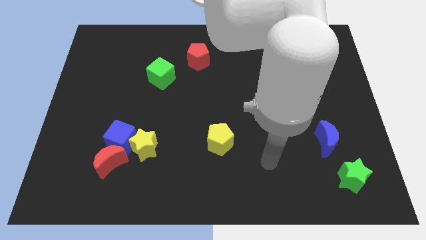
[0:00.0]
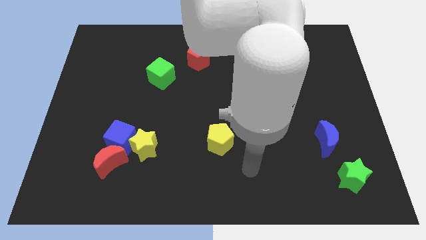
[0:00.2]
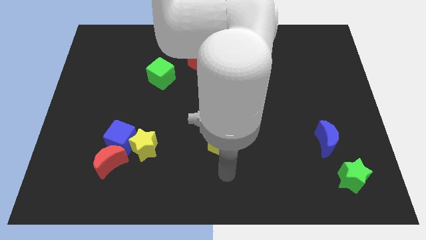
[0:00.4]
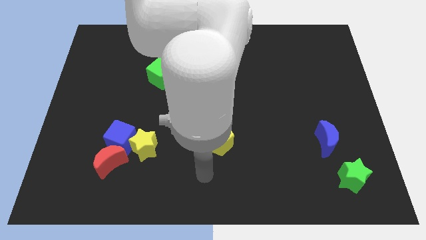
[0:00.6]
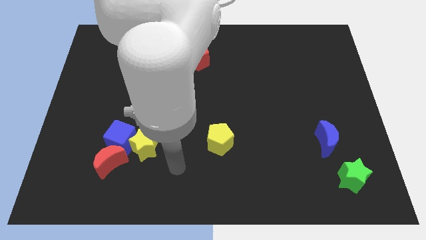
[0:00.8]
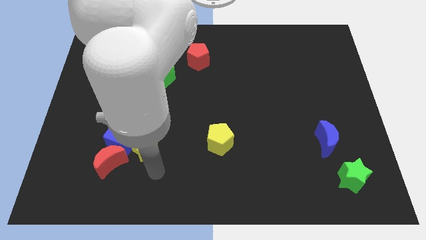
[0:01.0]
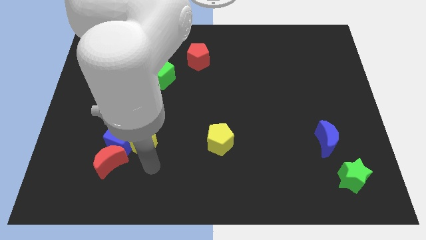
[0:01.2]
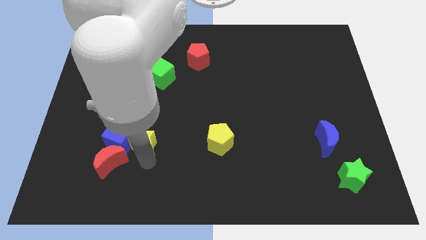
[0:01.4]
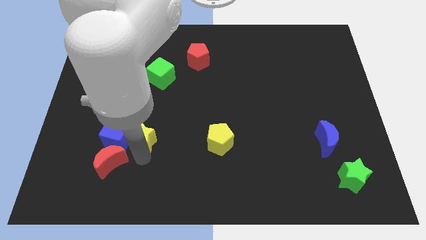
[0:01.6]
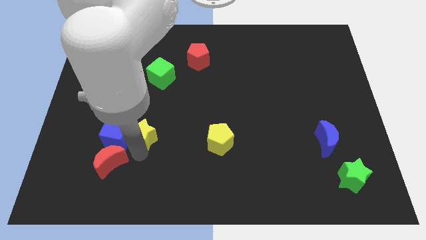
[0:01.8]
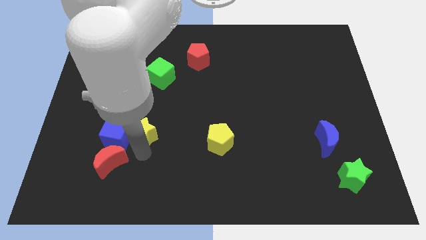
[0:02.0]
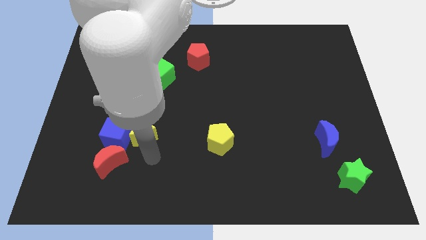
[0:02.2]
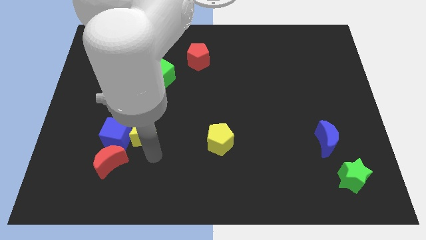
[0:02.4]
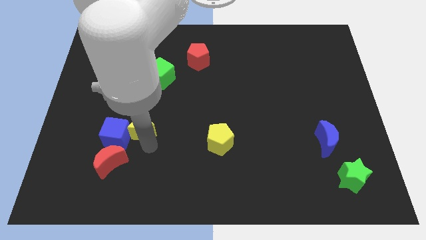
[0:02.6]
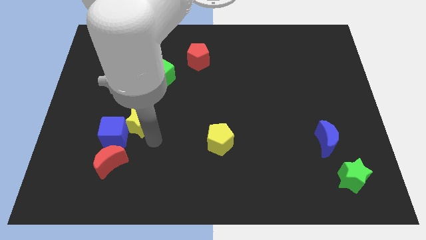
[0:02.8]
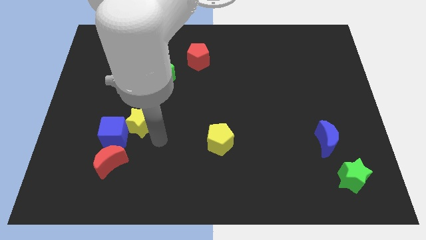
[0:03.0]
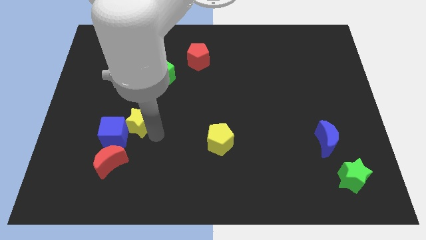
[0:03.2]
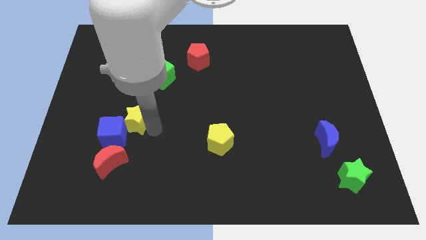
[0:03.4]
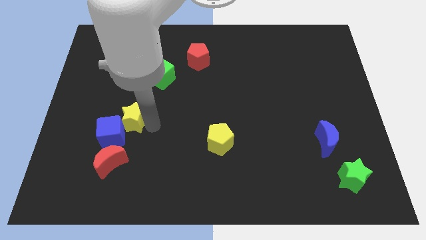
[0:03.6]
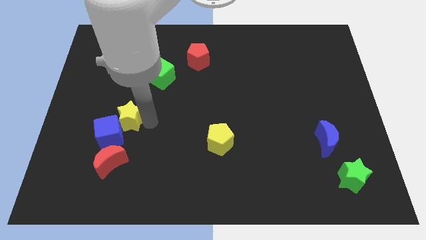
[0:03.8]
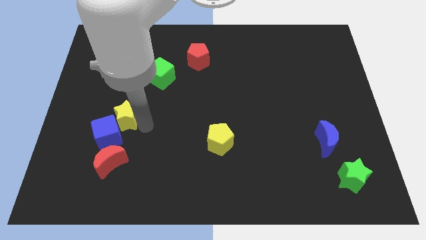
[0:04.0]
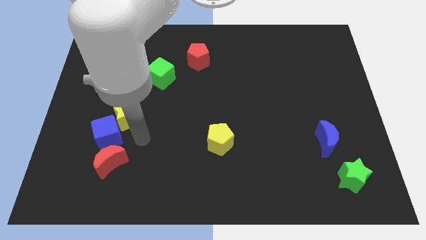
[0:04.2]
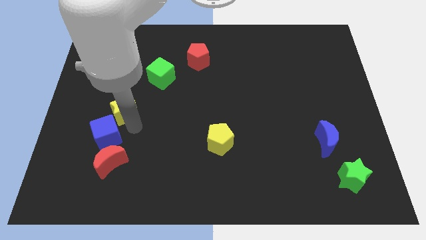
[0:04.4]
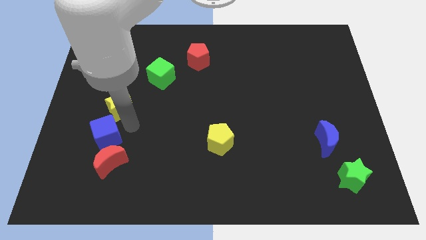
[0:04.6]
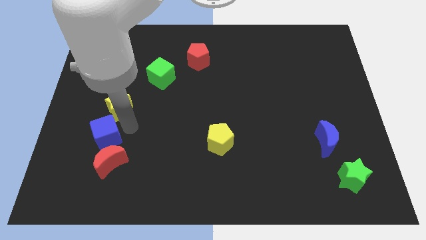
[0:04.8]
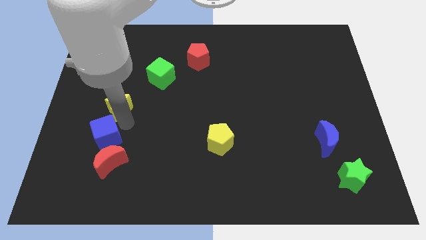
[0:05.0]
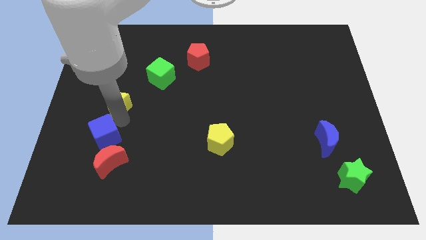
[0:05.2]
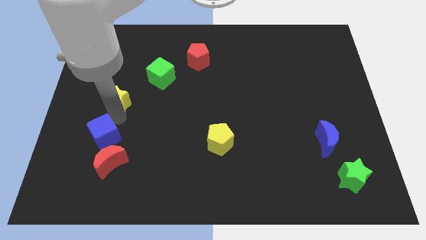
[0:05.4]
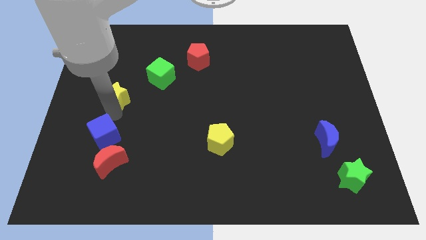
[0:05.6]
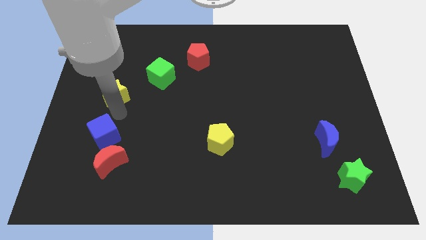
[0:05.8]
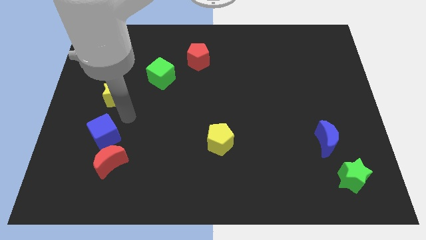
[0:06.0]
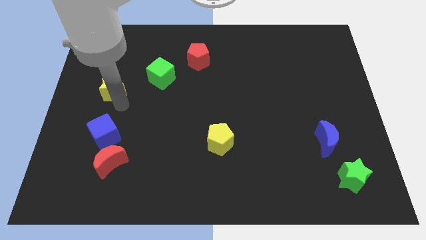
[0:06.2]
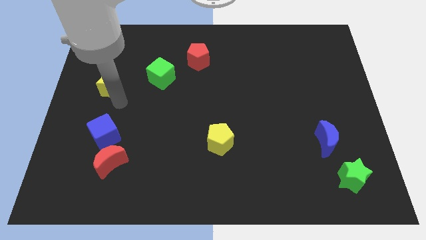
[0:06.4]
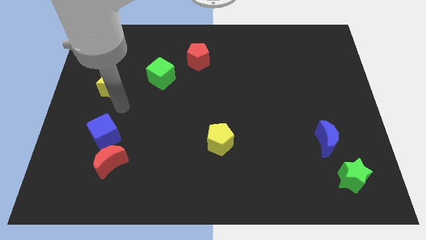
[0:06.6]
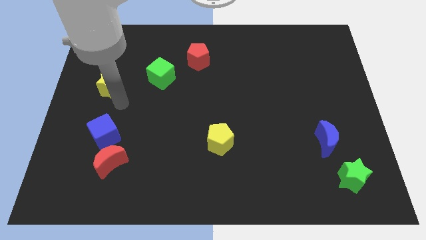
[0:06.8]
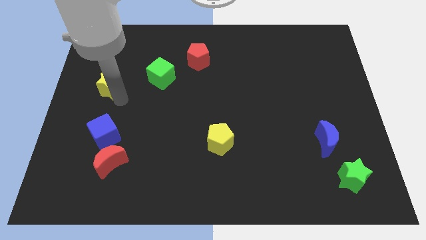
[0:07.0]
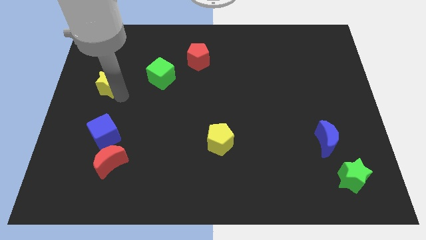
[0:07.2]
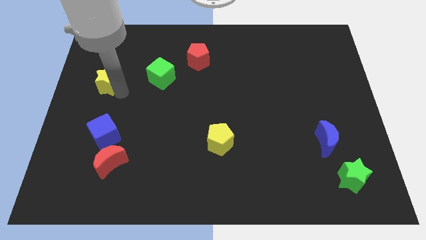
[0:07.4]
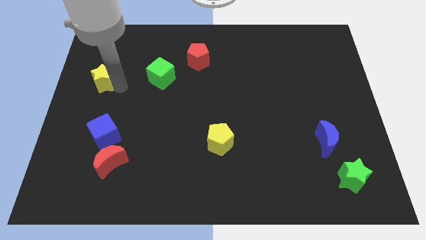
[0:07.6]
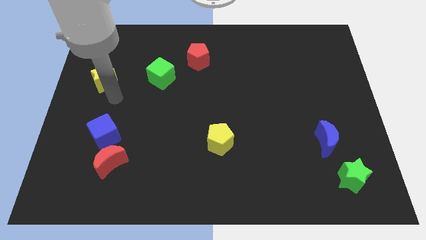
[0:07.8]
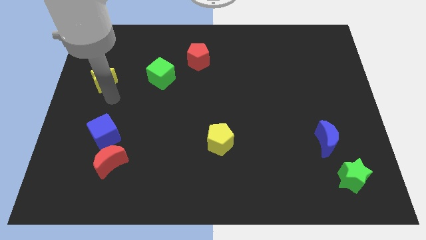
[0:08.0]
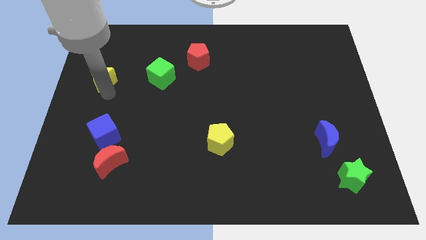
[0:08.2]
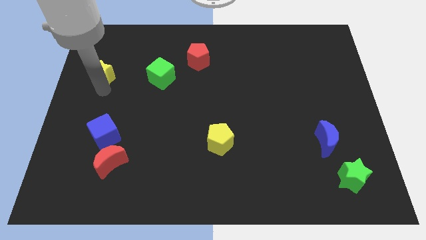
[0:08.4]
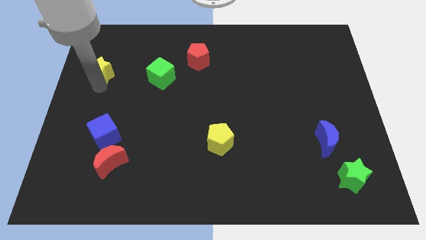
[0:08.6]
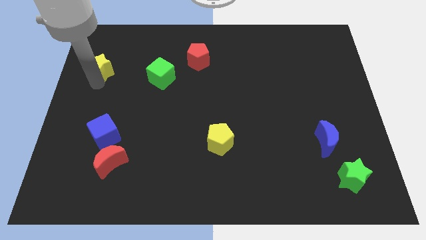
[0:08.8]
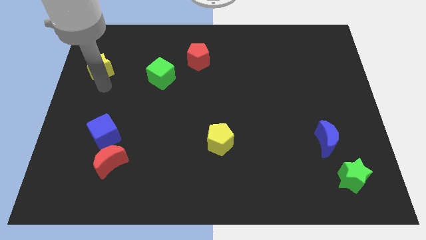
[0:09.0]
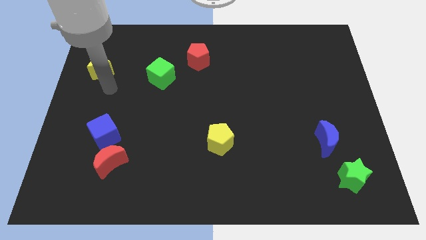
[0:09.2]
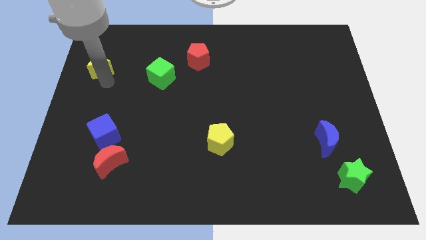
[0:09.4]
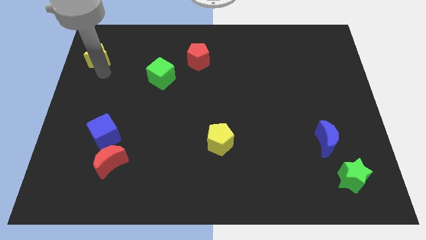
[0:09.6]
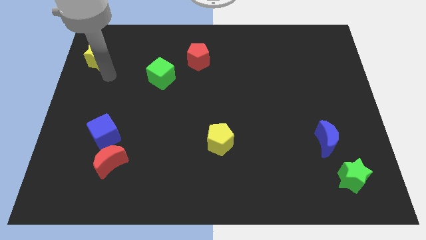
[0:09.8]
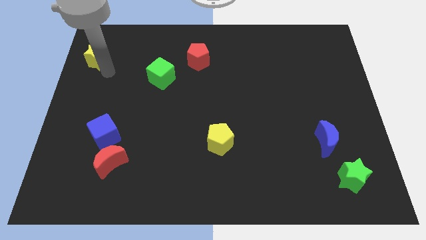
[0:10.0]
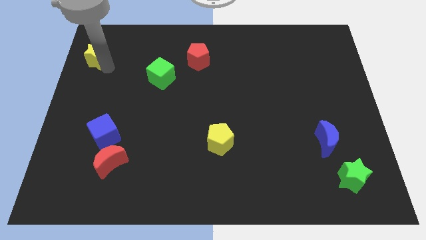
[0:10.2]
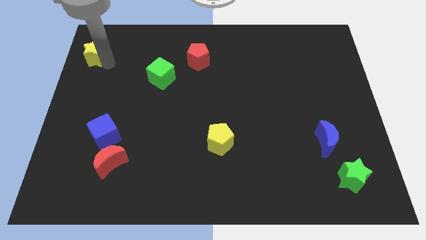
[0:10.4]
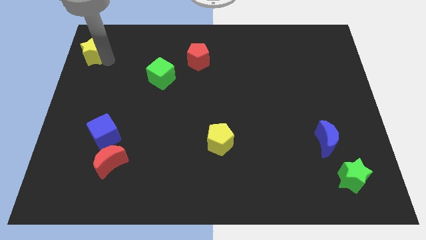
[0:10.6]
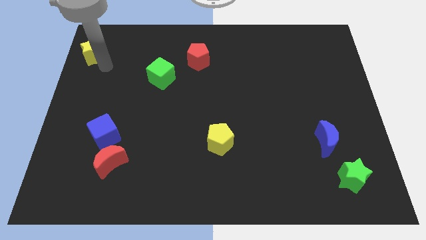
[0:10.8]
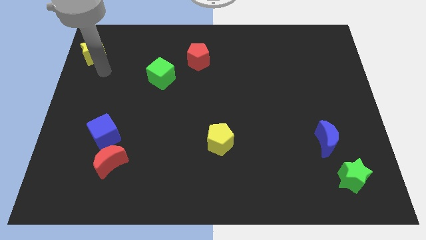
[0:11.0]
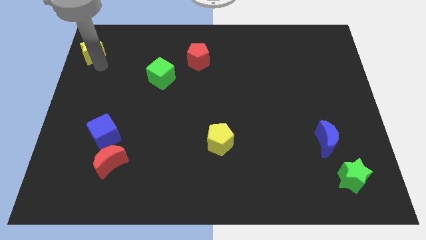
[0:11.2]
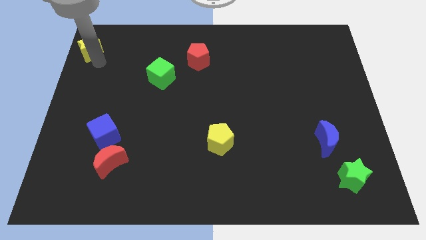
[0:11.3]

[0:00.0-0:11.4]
slide the yellow star to the upper left corner

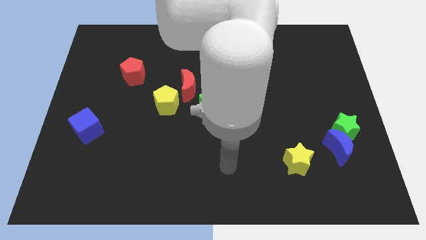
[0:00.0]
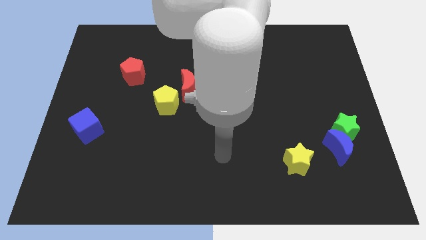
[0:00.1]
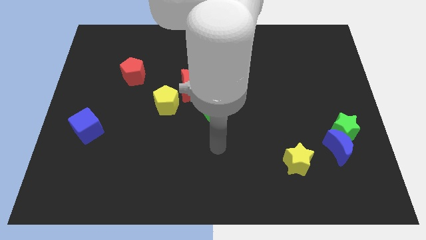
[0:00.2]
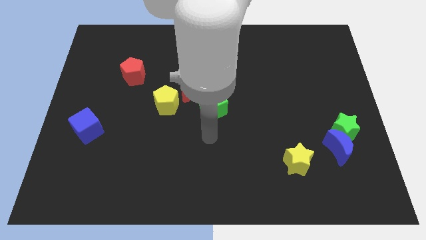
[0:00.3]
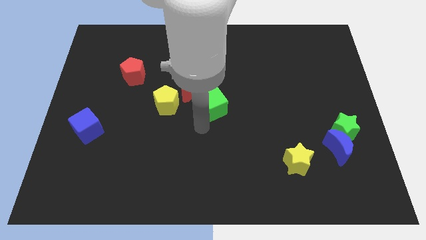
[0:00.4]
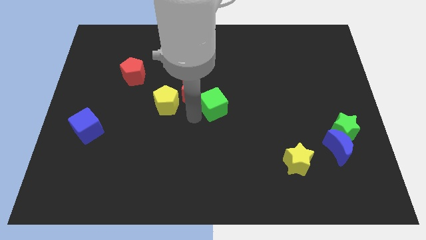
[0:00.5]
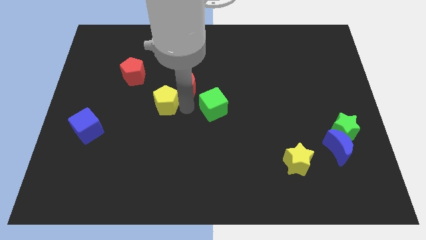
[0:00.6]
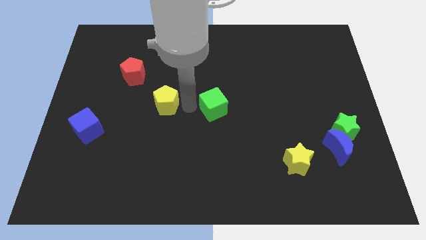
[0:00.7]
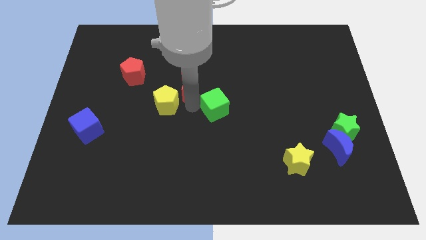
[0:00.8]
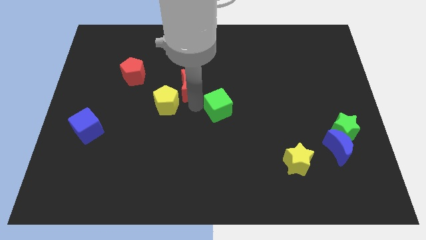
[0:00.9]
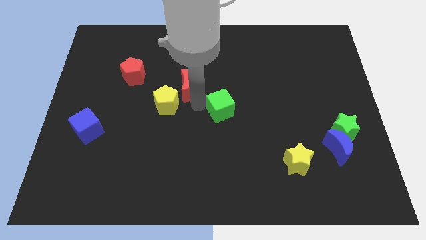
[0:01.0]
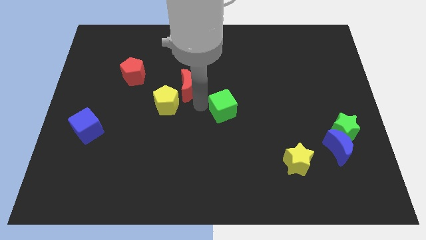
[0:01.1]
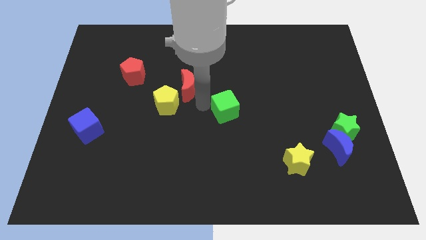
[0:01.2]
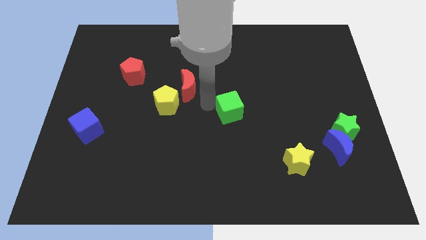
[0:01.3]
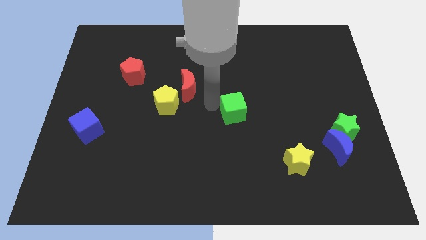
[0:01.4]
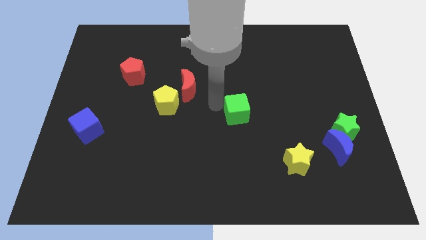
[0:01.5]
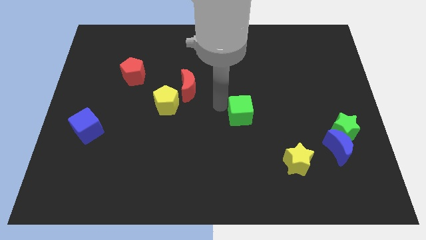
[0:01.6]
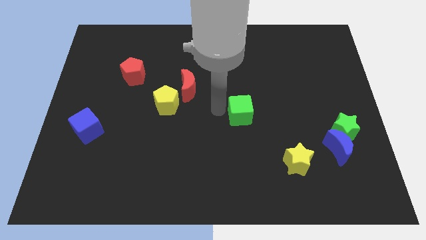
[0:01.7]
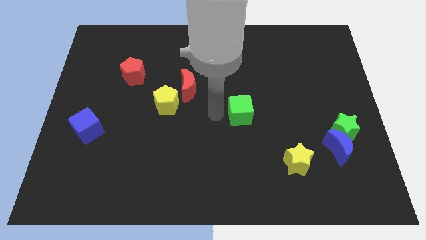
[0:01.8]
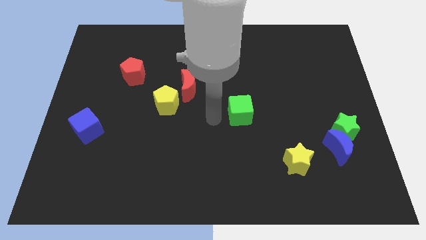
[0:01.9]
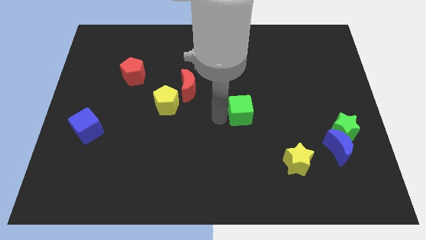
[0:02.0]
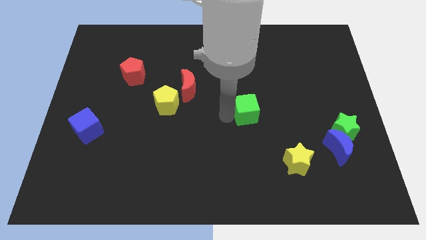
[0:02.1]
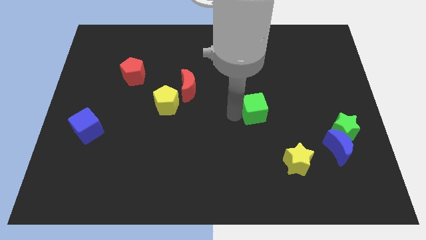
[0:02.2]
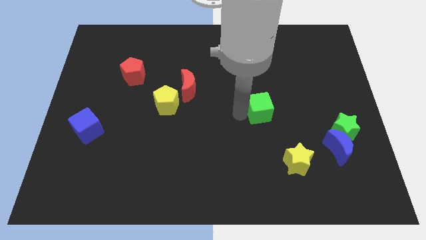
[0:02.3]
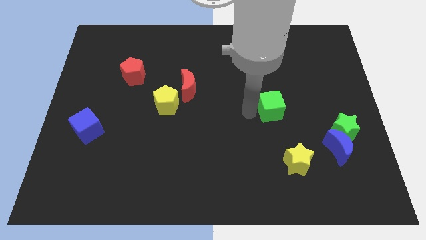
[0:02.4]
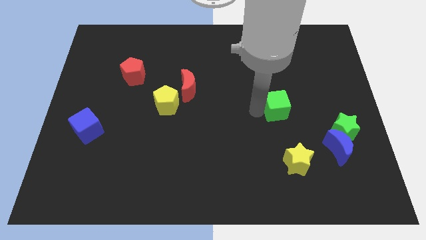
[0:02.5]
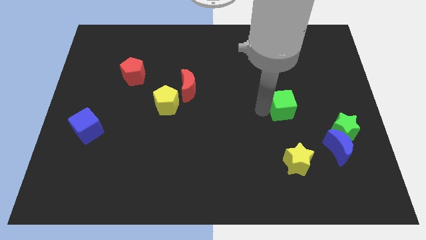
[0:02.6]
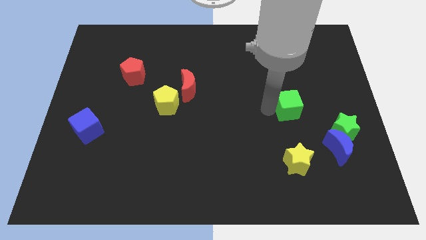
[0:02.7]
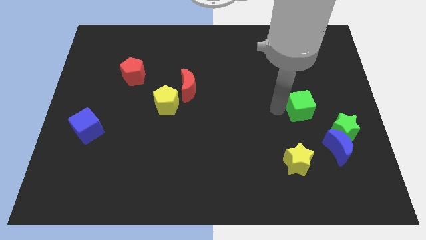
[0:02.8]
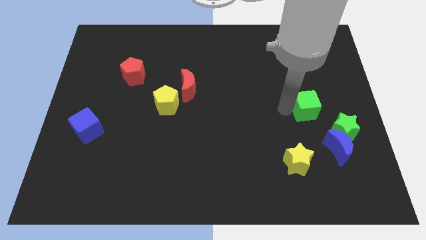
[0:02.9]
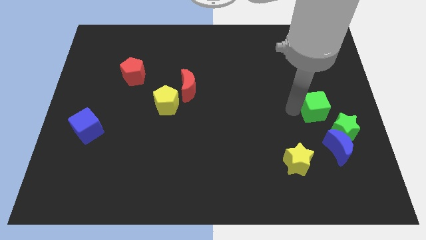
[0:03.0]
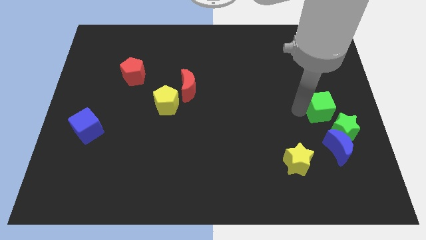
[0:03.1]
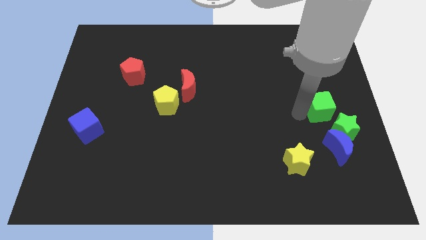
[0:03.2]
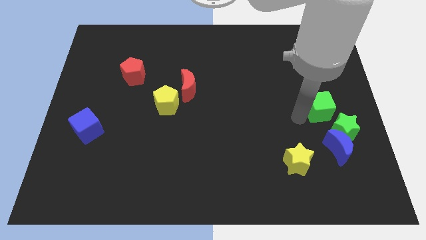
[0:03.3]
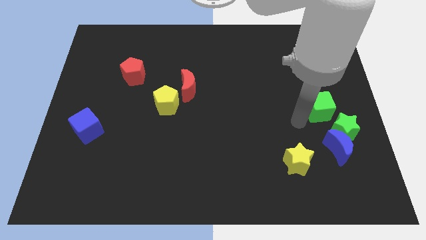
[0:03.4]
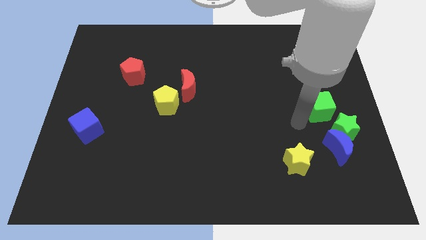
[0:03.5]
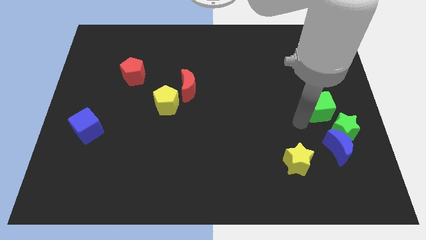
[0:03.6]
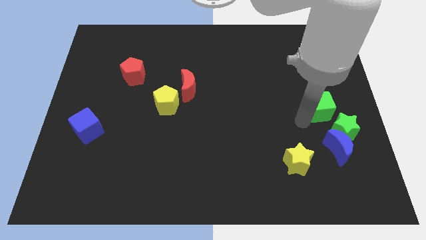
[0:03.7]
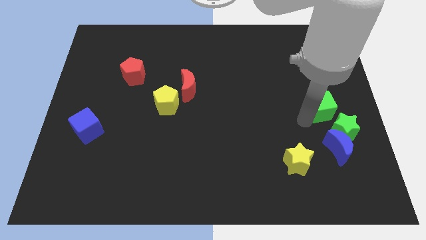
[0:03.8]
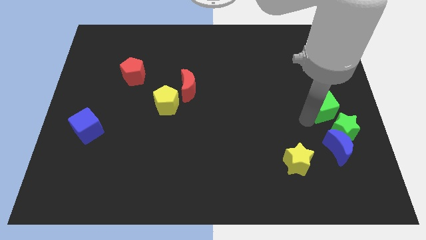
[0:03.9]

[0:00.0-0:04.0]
move the green cube to the right side
